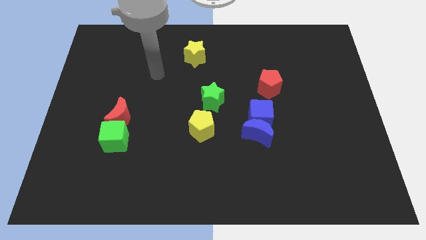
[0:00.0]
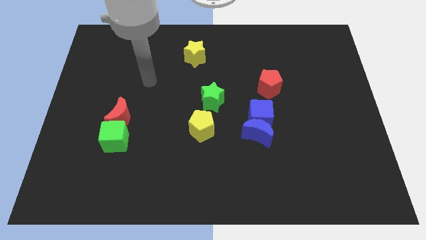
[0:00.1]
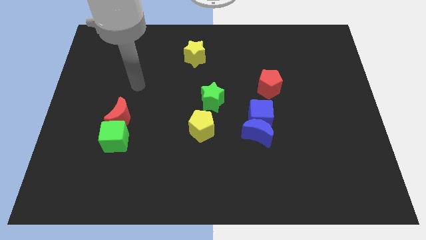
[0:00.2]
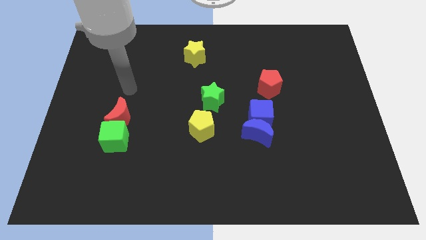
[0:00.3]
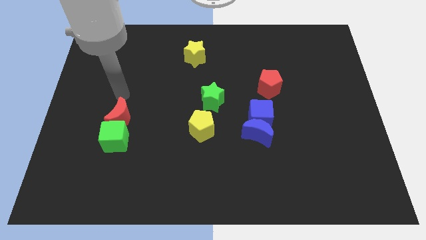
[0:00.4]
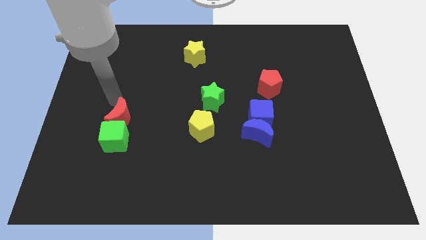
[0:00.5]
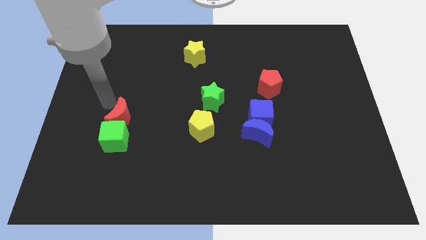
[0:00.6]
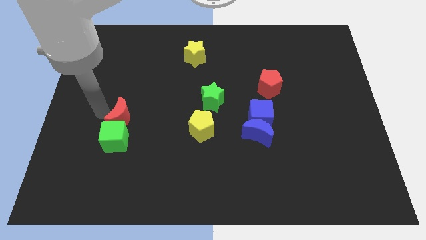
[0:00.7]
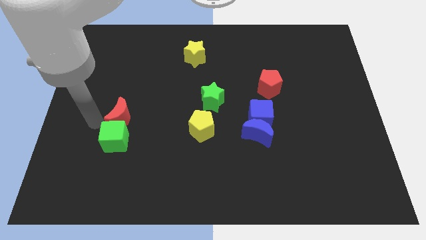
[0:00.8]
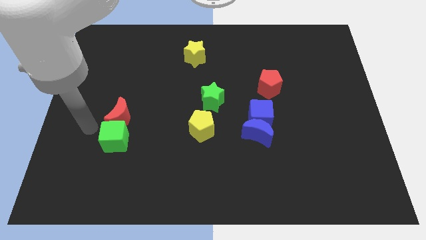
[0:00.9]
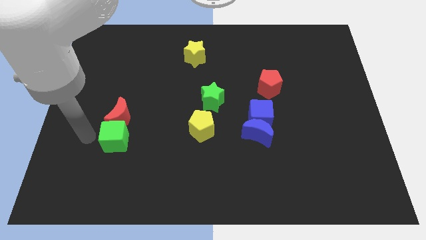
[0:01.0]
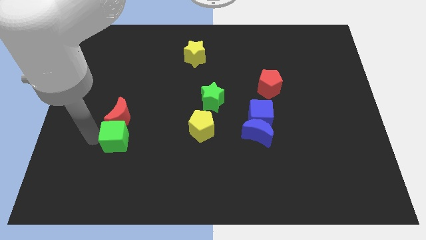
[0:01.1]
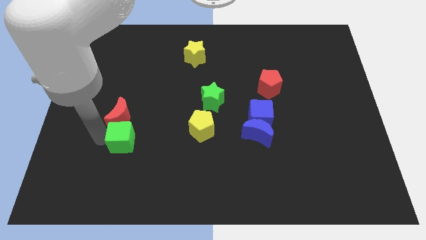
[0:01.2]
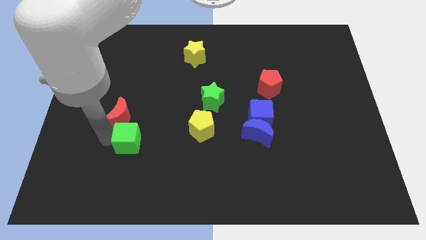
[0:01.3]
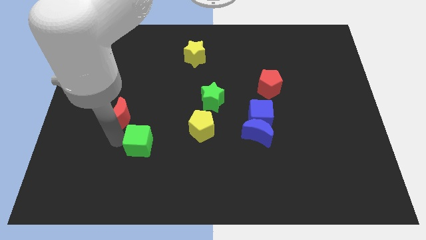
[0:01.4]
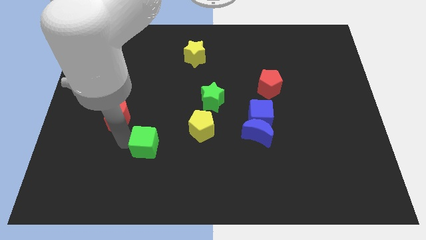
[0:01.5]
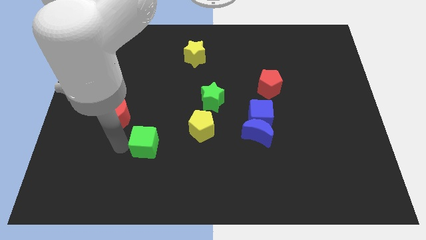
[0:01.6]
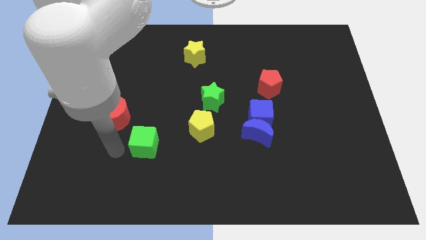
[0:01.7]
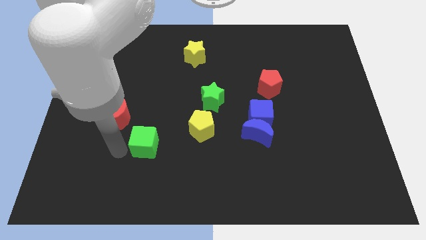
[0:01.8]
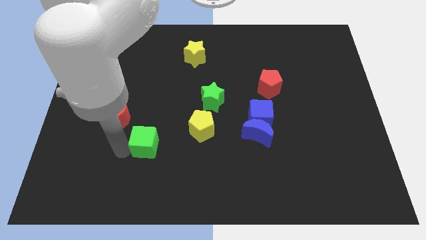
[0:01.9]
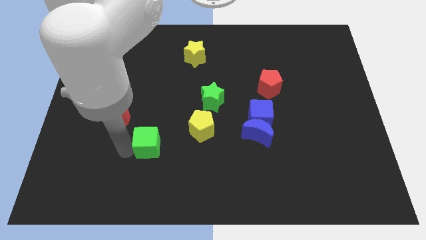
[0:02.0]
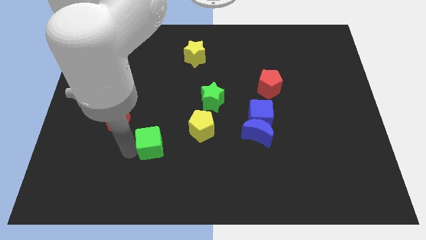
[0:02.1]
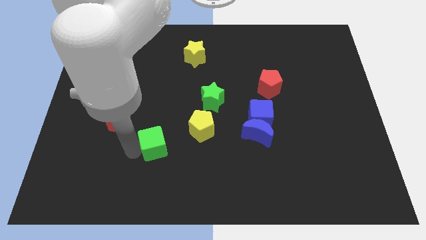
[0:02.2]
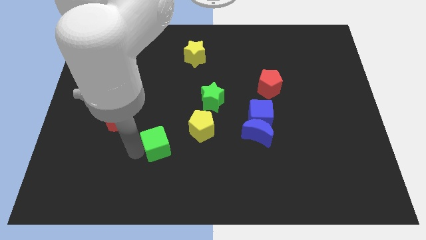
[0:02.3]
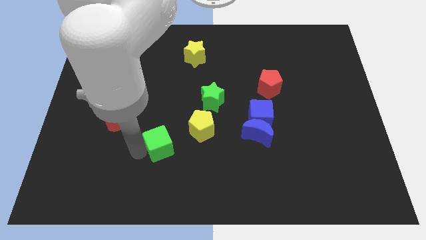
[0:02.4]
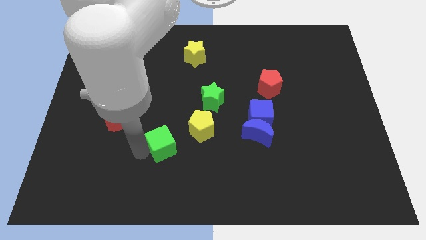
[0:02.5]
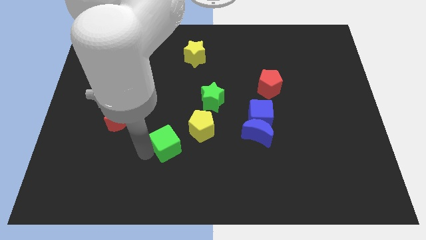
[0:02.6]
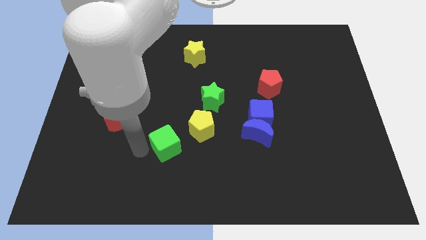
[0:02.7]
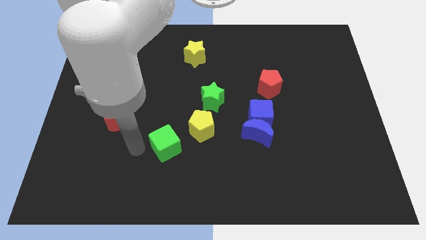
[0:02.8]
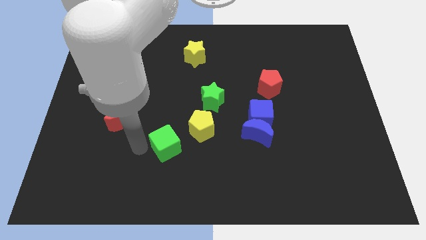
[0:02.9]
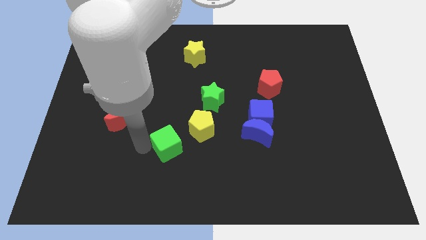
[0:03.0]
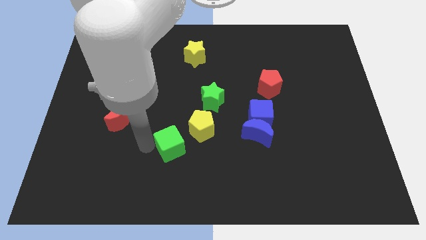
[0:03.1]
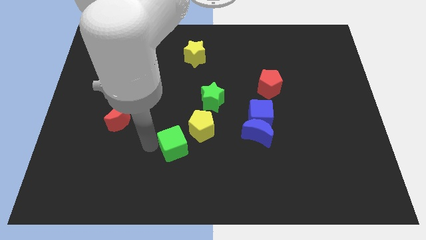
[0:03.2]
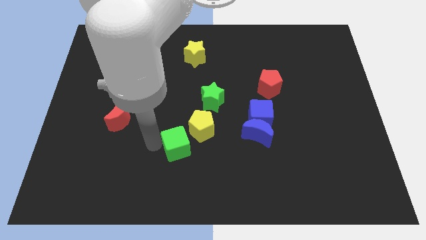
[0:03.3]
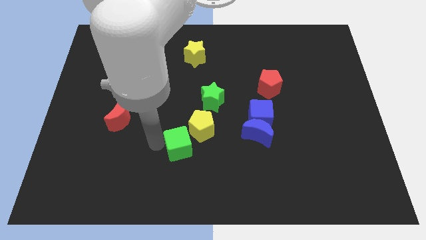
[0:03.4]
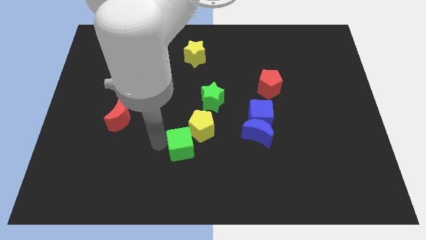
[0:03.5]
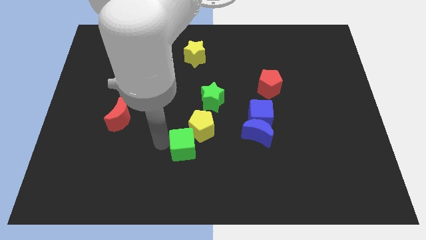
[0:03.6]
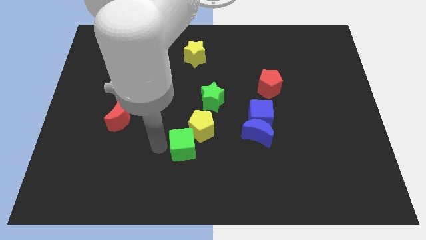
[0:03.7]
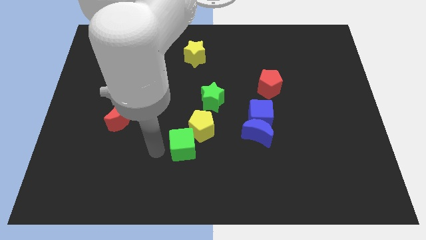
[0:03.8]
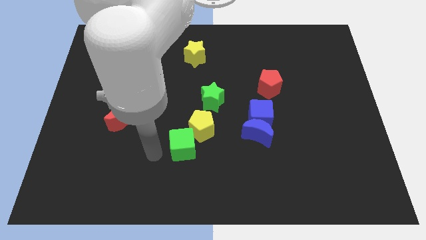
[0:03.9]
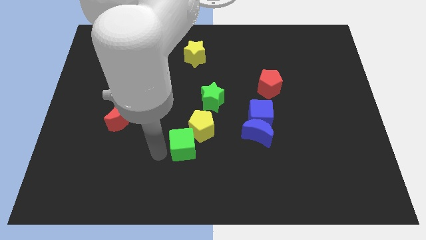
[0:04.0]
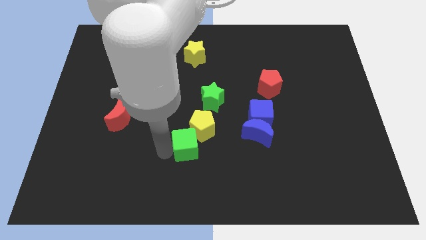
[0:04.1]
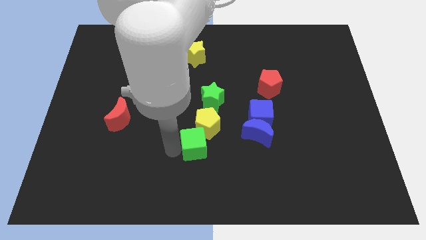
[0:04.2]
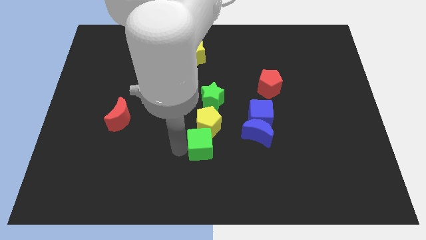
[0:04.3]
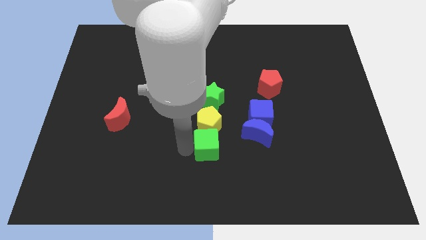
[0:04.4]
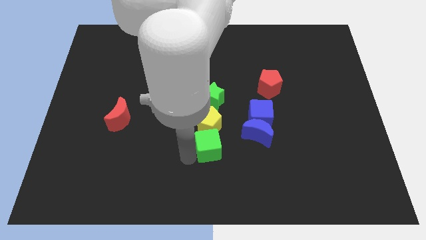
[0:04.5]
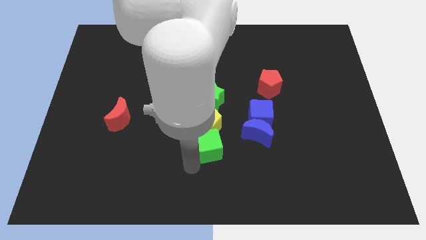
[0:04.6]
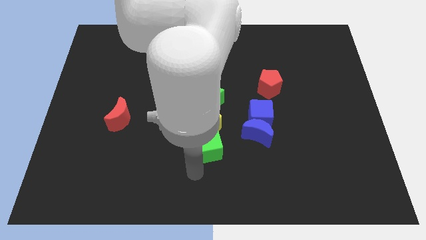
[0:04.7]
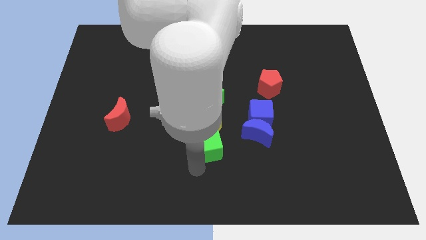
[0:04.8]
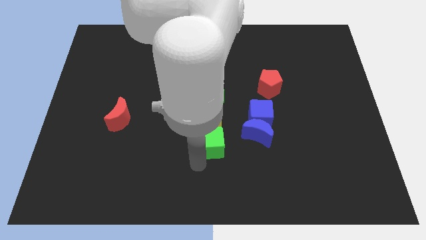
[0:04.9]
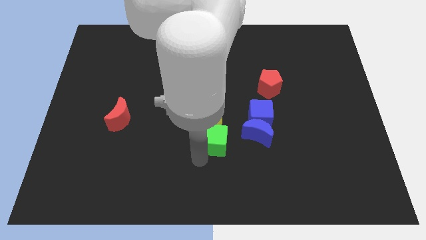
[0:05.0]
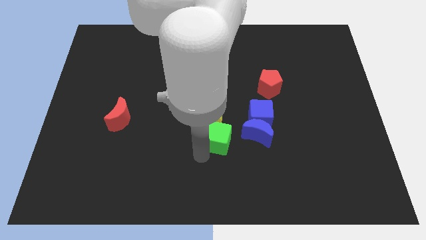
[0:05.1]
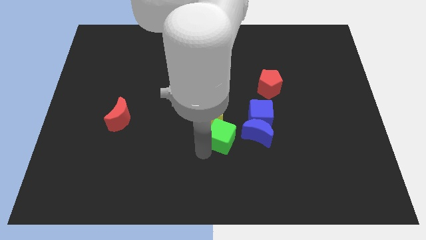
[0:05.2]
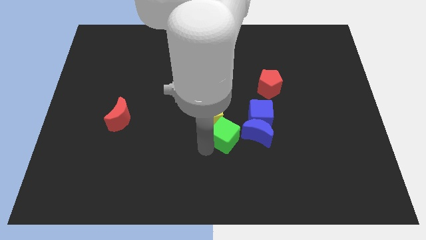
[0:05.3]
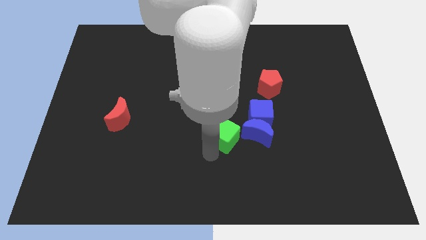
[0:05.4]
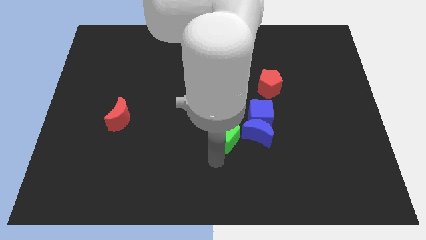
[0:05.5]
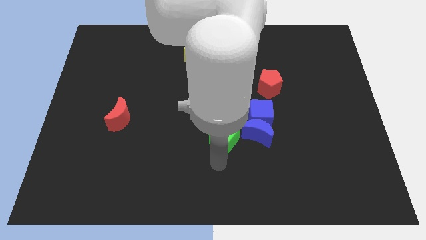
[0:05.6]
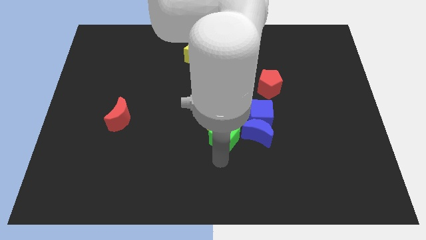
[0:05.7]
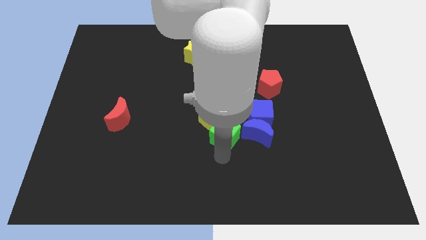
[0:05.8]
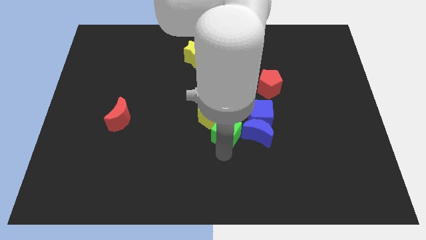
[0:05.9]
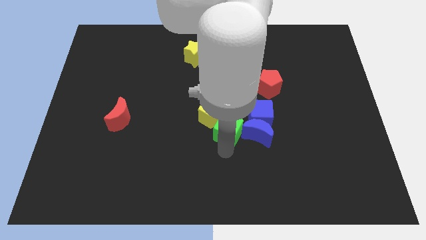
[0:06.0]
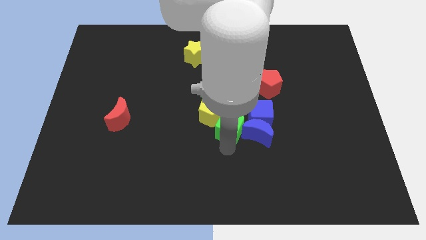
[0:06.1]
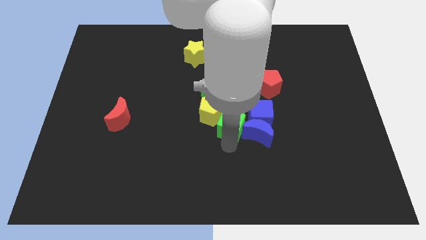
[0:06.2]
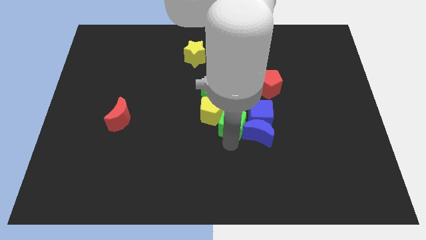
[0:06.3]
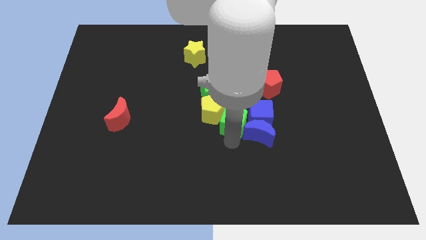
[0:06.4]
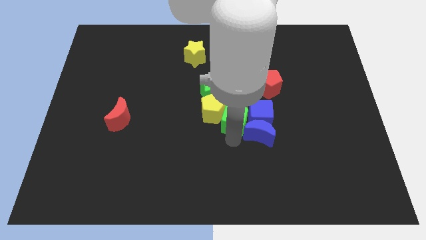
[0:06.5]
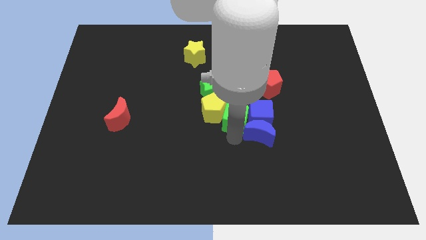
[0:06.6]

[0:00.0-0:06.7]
put the green cube diagonally up and to the left of the blue cube
